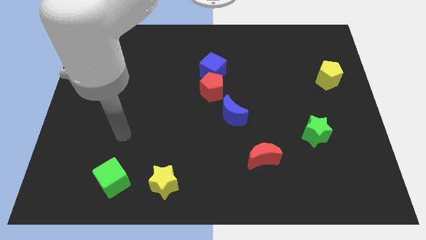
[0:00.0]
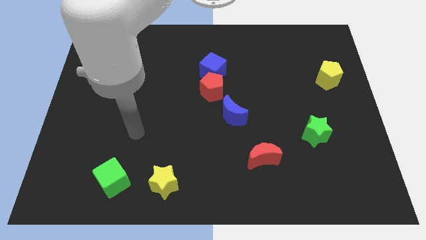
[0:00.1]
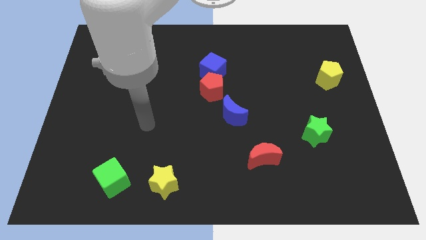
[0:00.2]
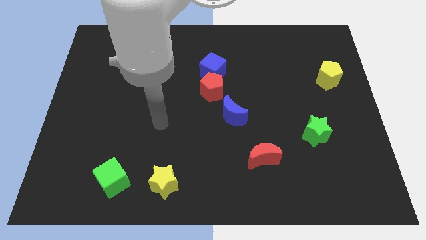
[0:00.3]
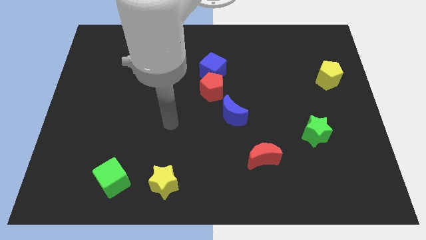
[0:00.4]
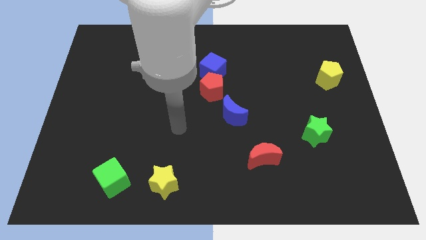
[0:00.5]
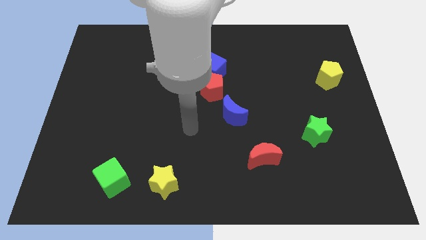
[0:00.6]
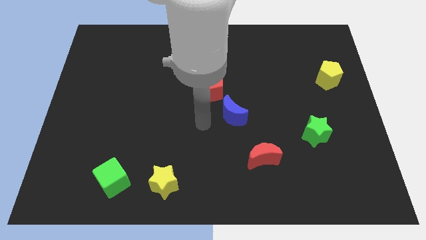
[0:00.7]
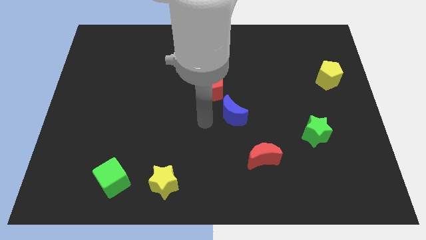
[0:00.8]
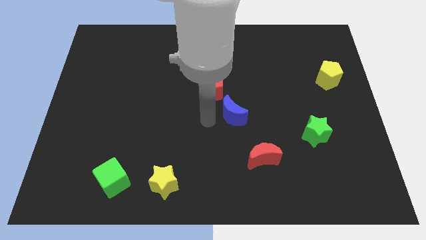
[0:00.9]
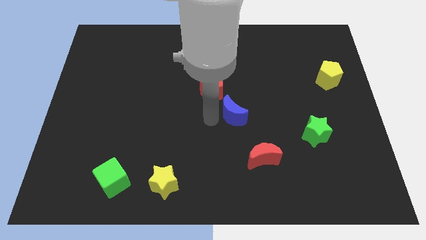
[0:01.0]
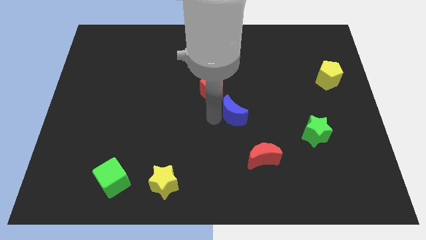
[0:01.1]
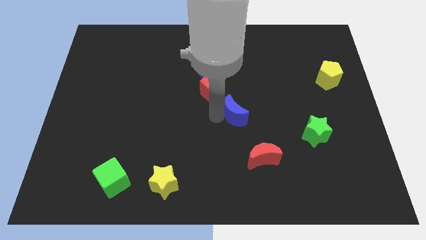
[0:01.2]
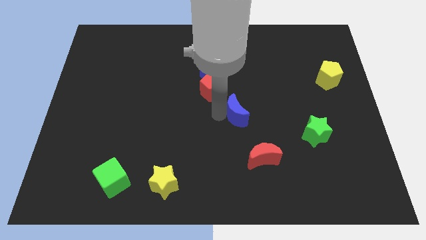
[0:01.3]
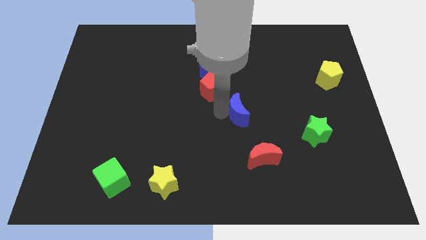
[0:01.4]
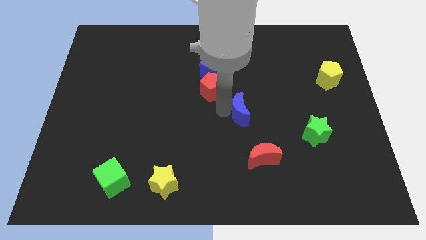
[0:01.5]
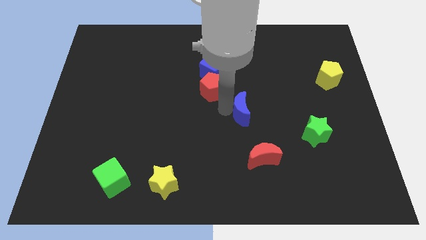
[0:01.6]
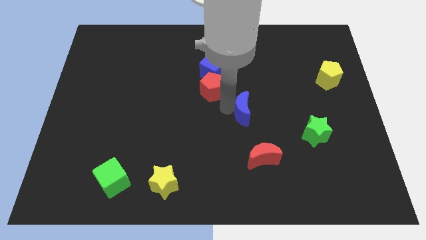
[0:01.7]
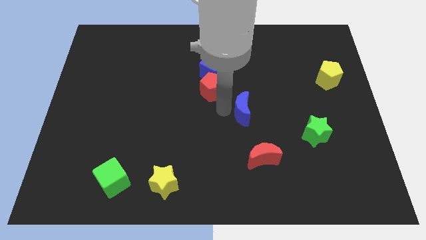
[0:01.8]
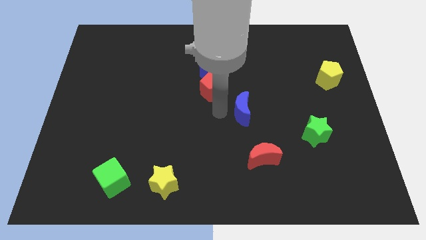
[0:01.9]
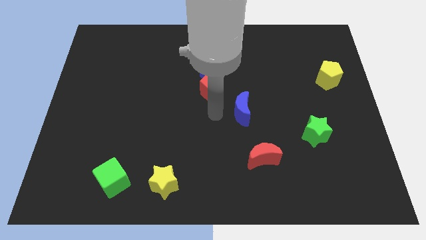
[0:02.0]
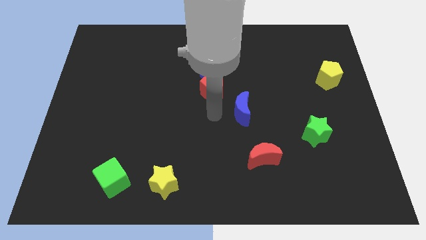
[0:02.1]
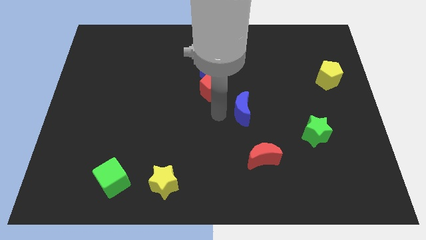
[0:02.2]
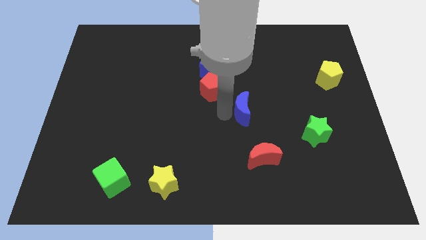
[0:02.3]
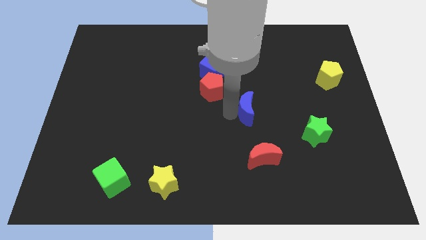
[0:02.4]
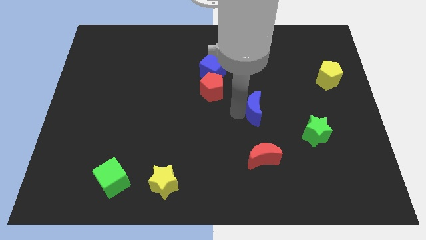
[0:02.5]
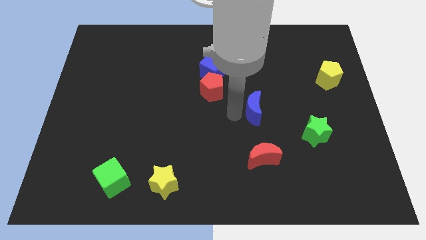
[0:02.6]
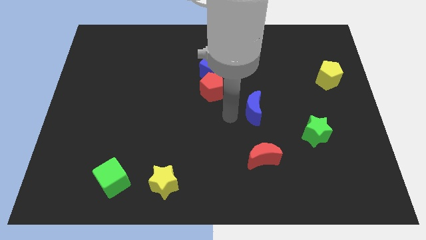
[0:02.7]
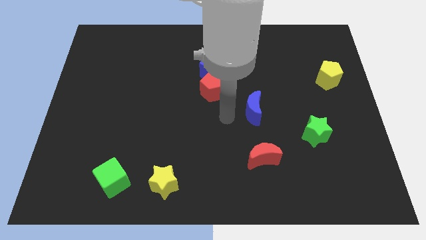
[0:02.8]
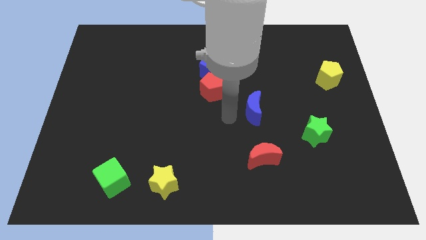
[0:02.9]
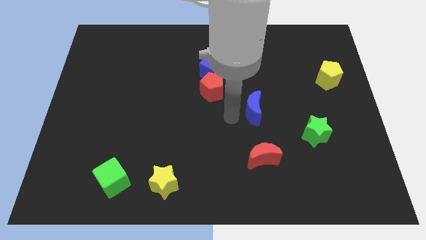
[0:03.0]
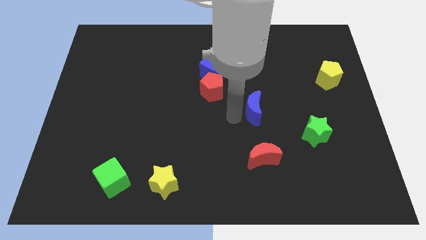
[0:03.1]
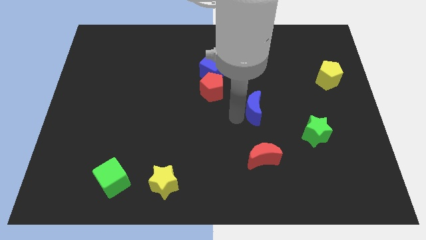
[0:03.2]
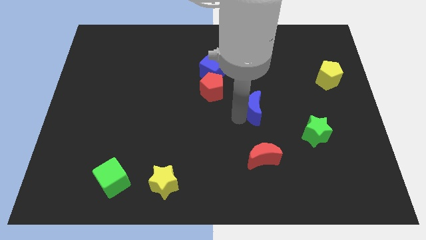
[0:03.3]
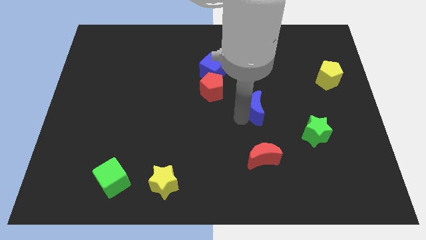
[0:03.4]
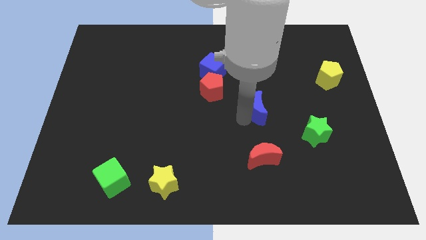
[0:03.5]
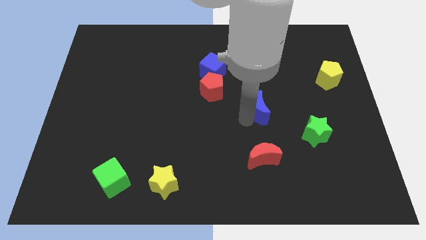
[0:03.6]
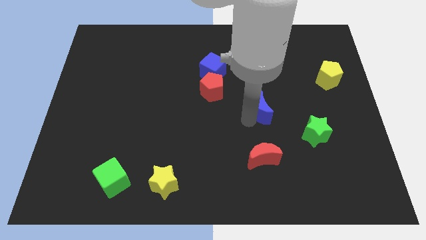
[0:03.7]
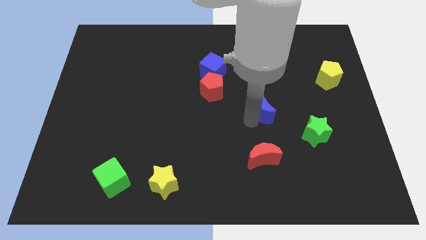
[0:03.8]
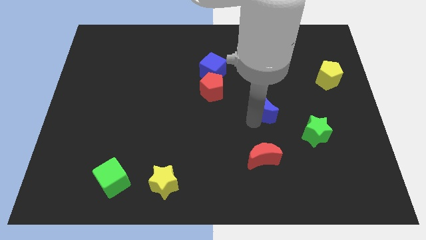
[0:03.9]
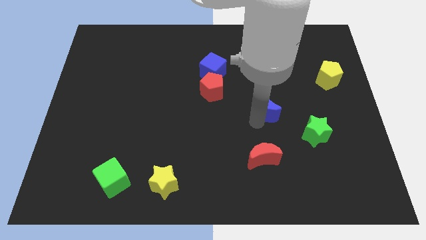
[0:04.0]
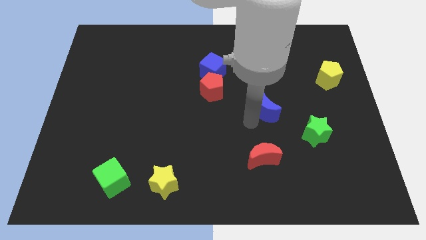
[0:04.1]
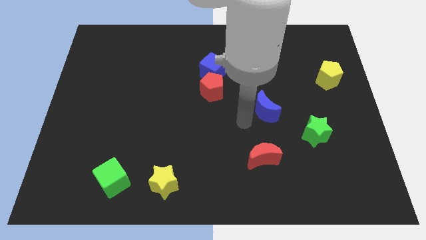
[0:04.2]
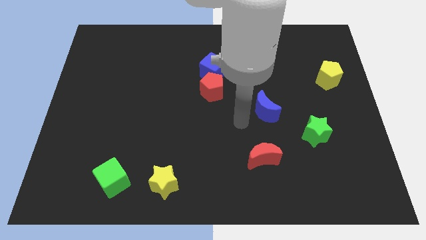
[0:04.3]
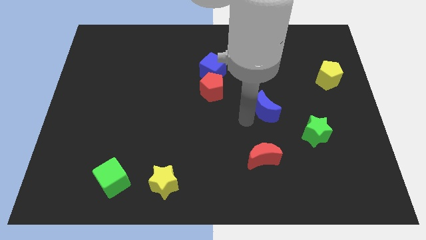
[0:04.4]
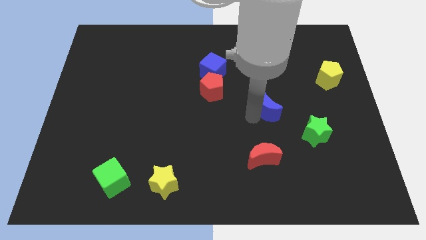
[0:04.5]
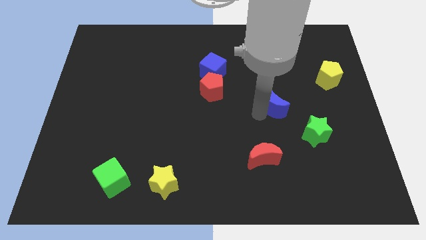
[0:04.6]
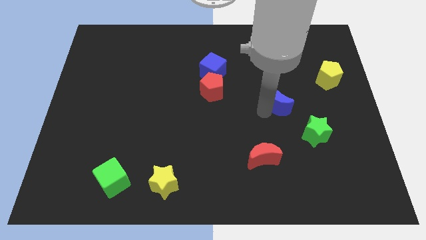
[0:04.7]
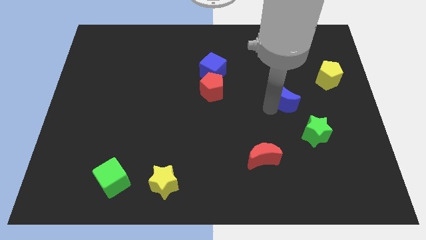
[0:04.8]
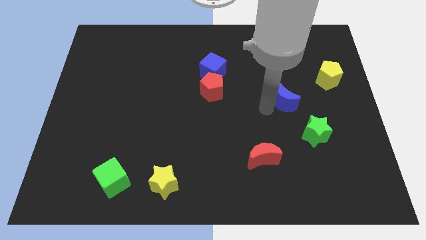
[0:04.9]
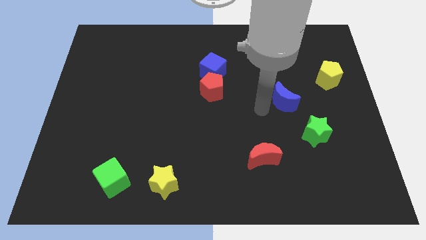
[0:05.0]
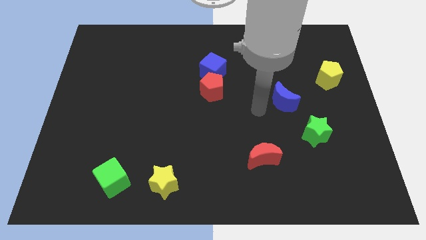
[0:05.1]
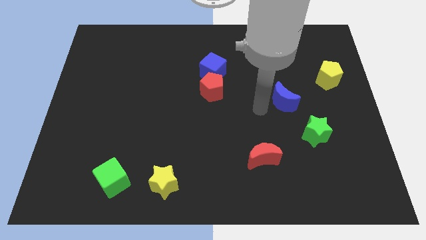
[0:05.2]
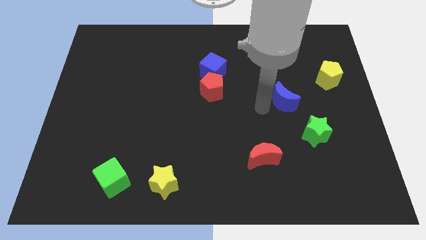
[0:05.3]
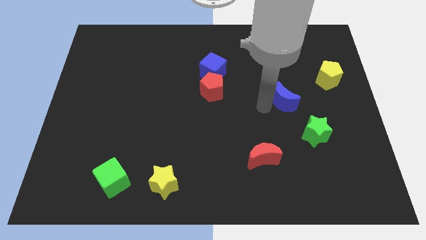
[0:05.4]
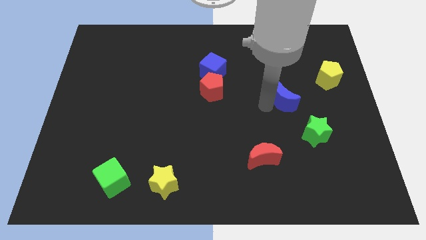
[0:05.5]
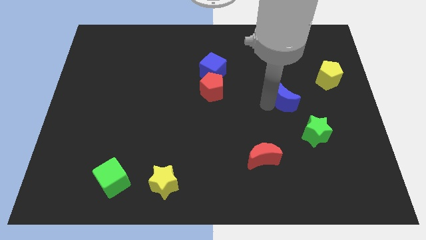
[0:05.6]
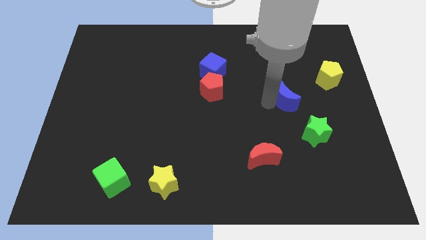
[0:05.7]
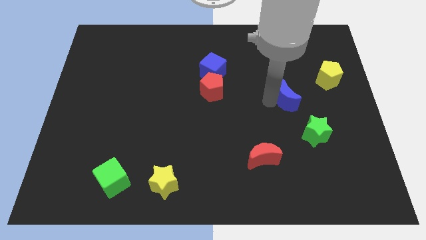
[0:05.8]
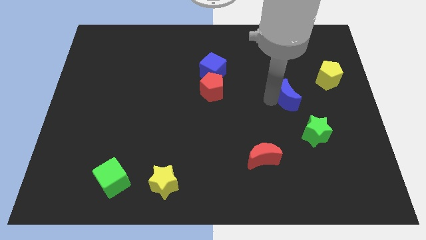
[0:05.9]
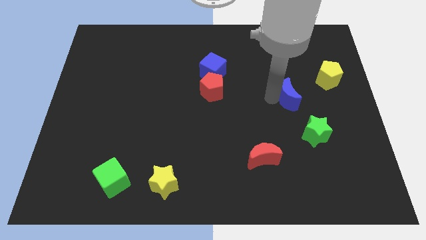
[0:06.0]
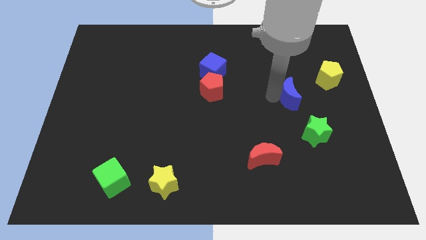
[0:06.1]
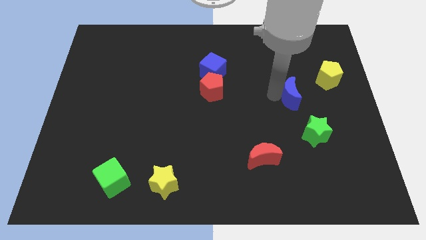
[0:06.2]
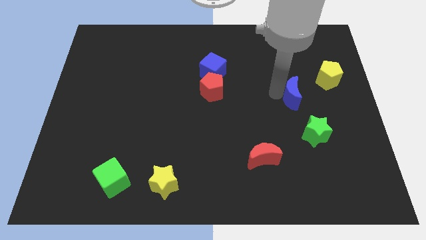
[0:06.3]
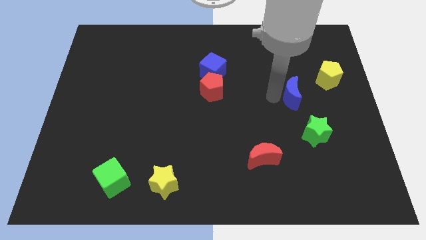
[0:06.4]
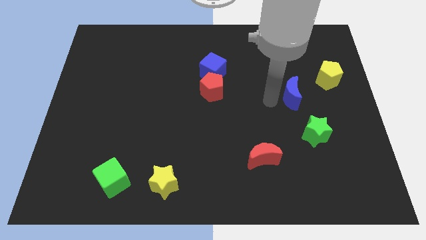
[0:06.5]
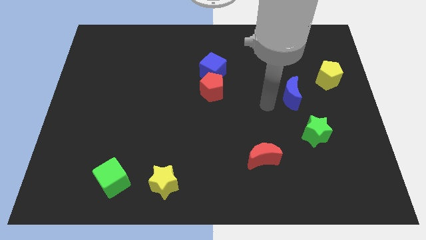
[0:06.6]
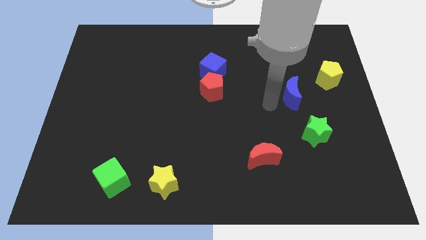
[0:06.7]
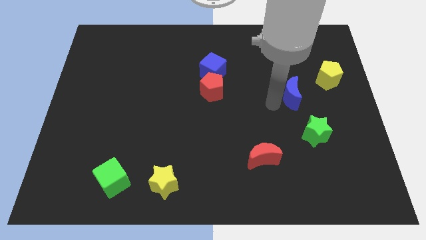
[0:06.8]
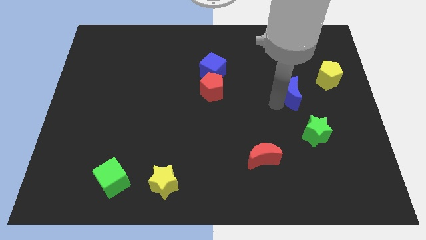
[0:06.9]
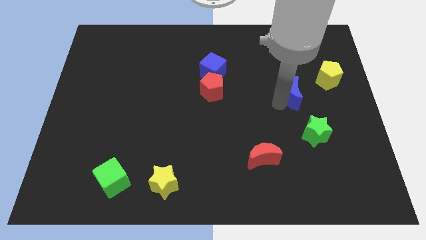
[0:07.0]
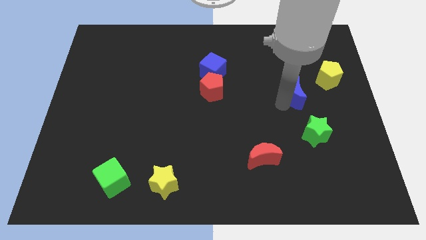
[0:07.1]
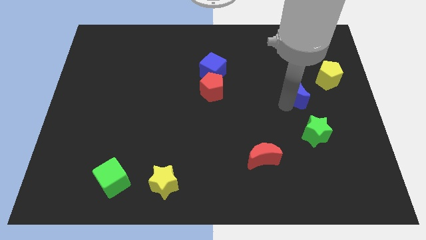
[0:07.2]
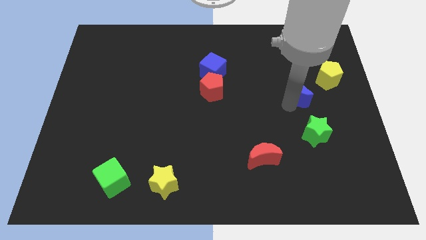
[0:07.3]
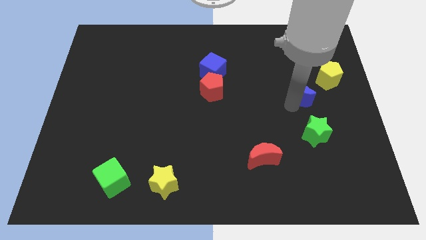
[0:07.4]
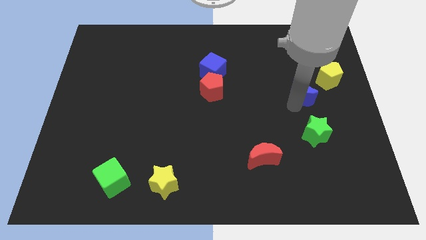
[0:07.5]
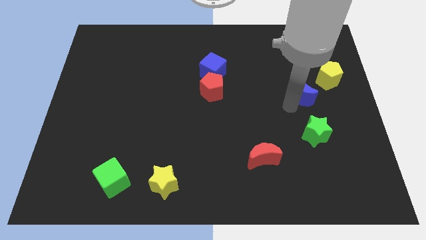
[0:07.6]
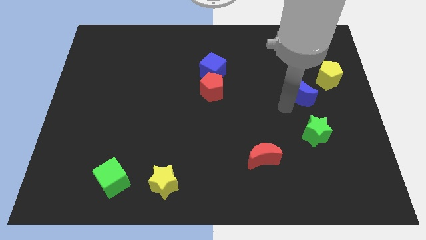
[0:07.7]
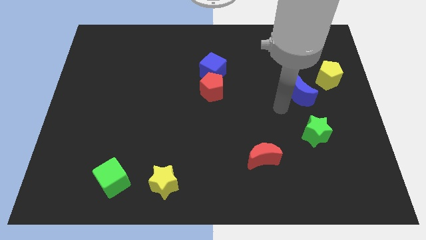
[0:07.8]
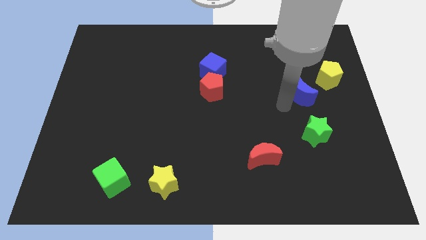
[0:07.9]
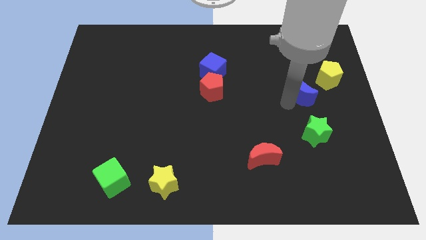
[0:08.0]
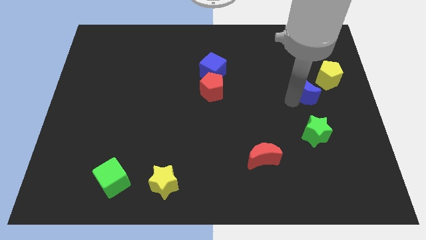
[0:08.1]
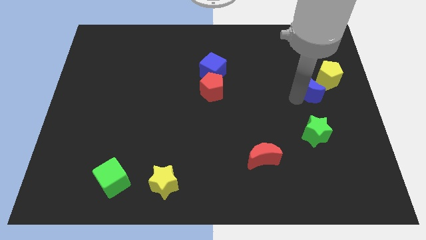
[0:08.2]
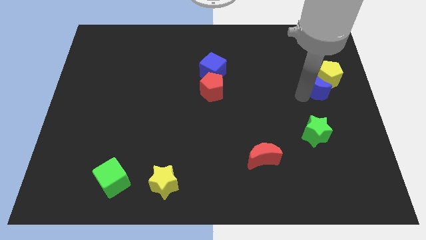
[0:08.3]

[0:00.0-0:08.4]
put the blue moon close to the yellow pentagon
